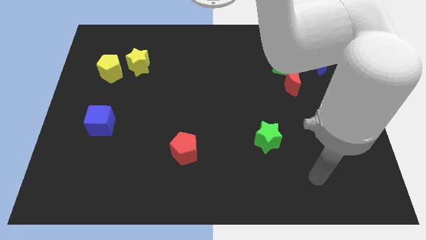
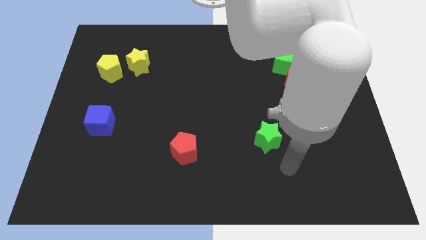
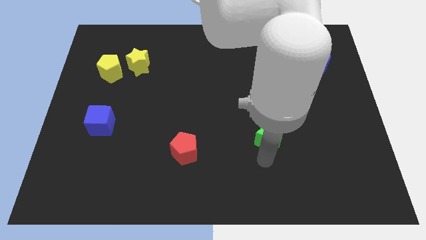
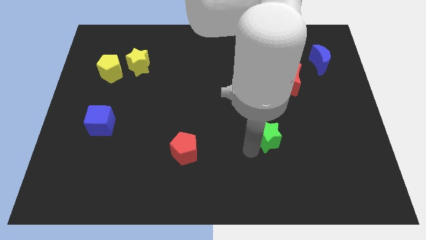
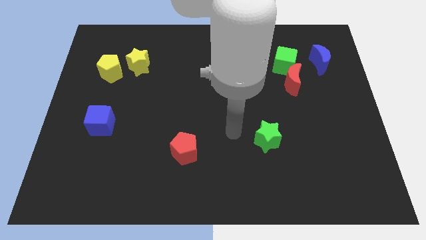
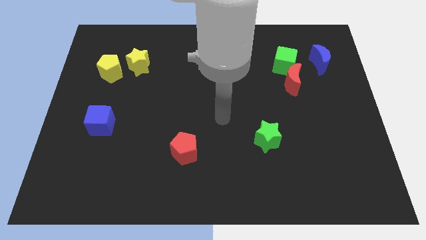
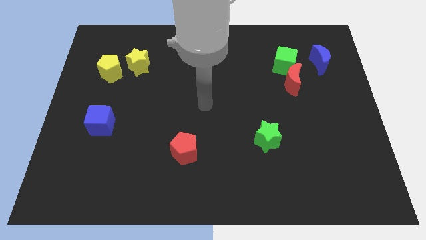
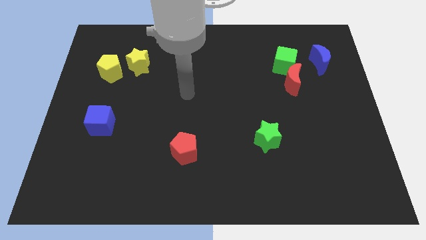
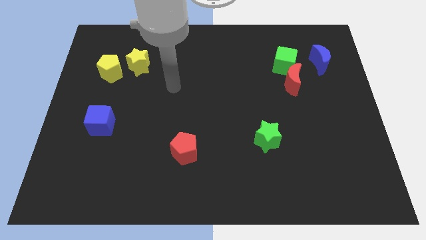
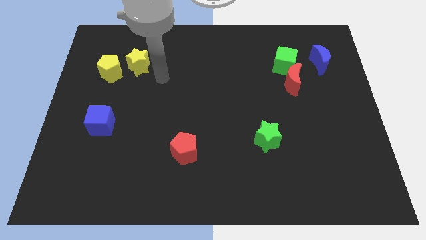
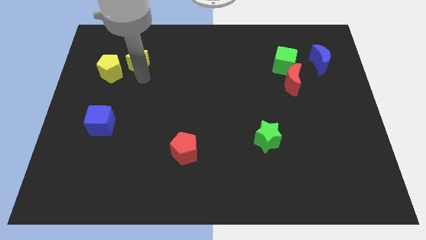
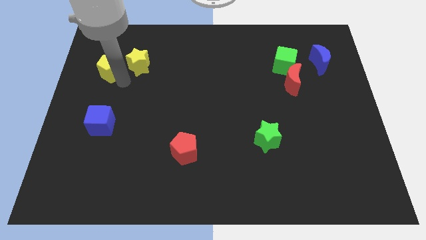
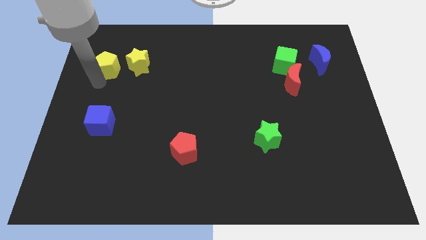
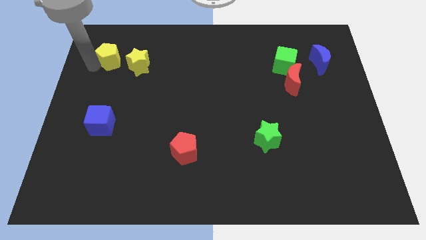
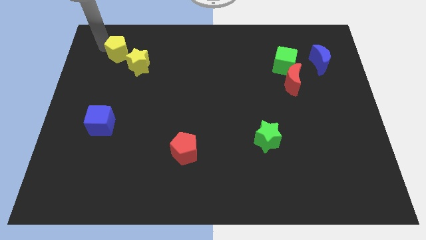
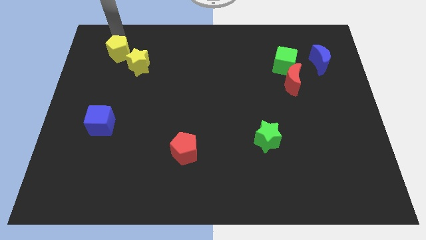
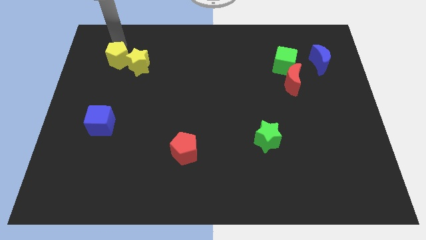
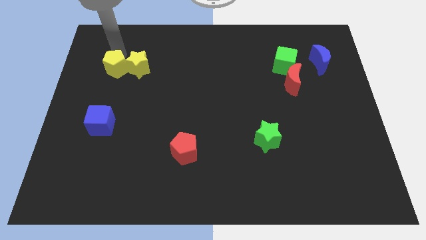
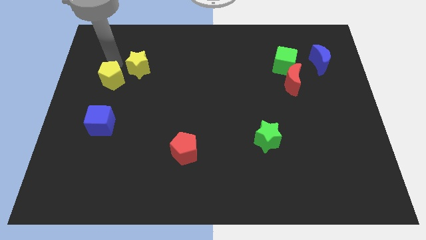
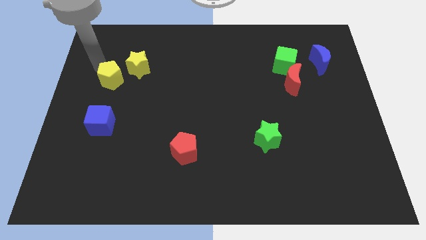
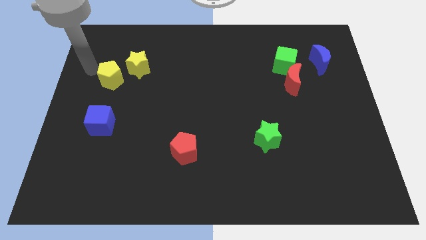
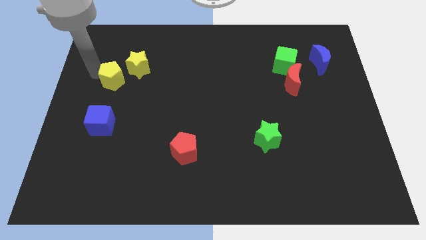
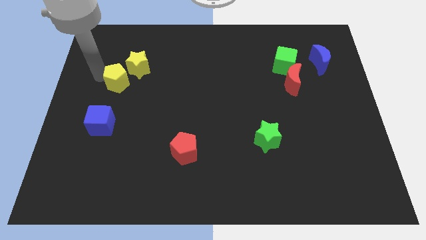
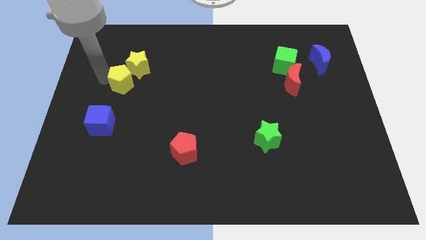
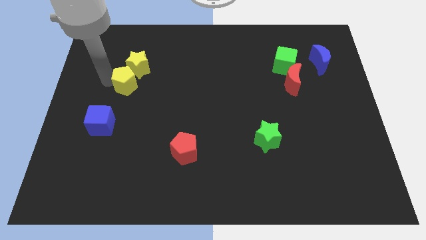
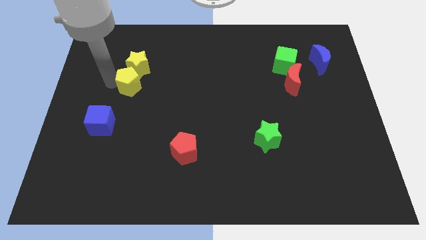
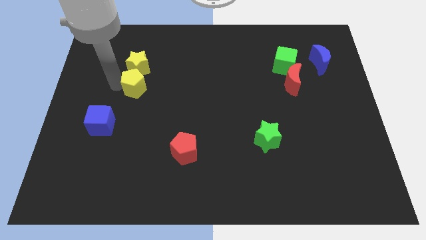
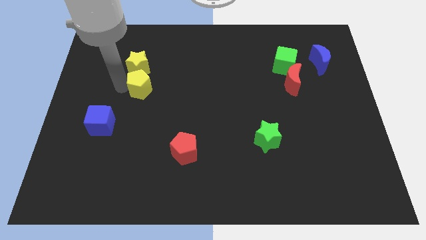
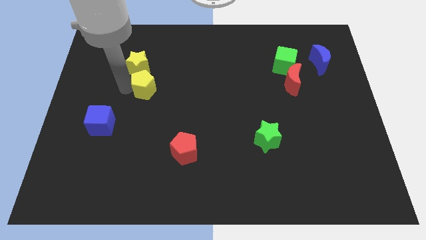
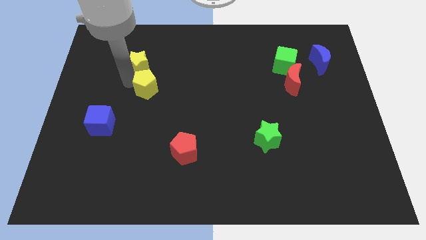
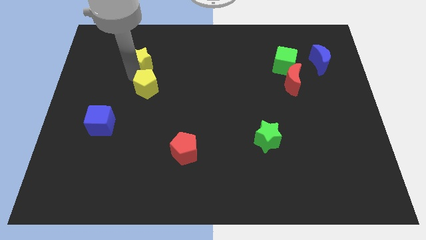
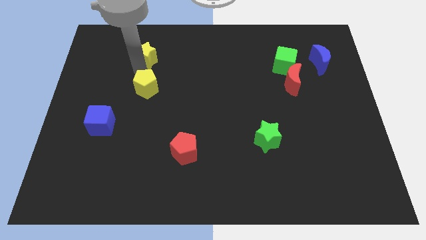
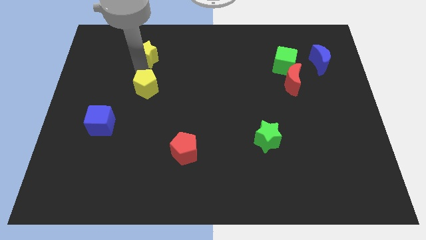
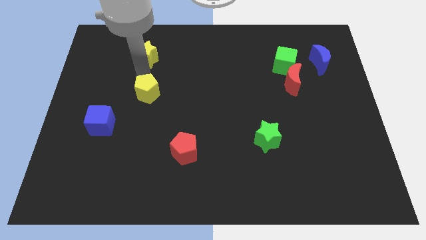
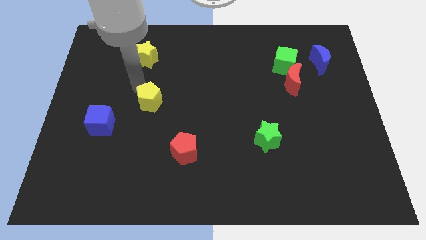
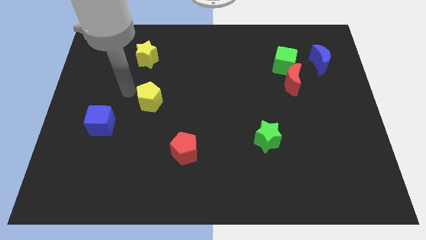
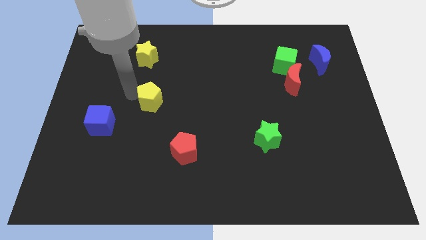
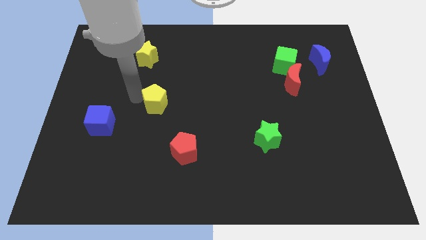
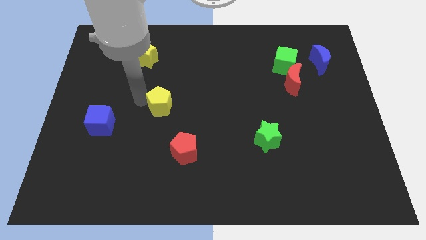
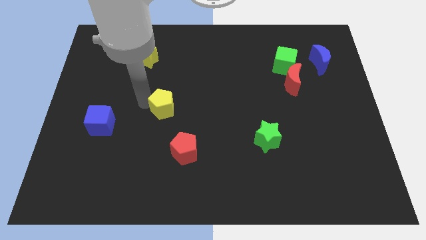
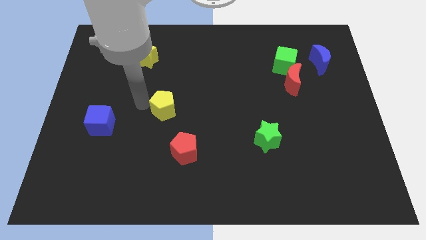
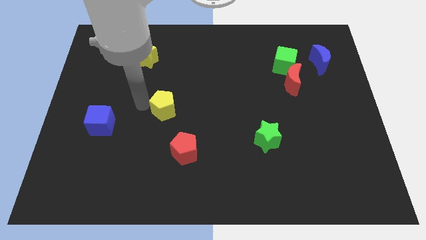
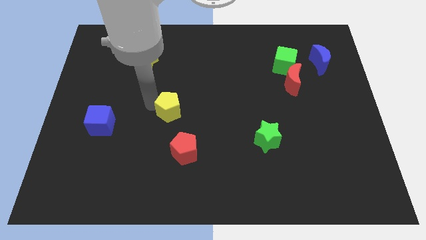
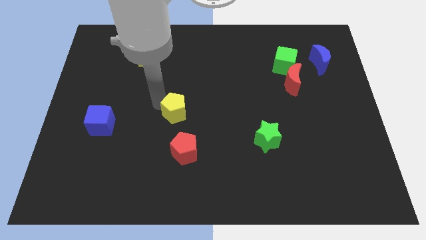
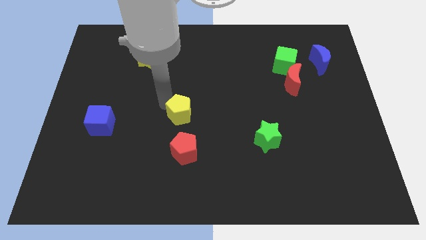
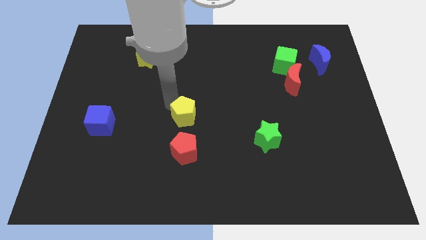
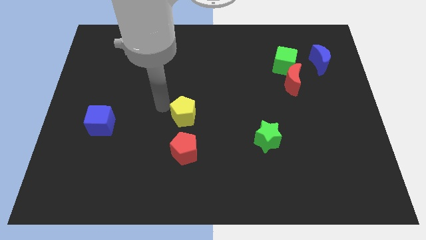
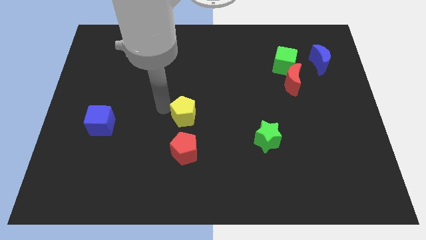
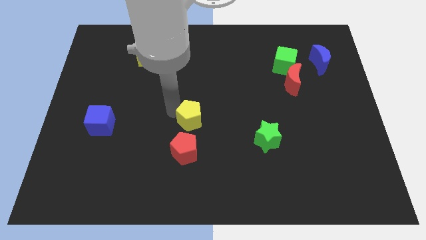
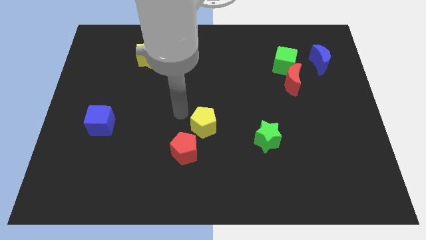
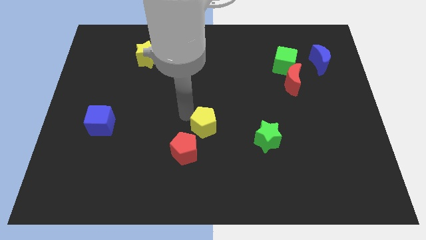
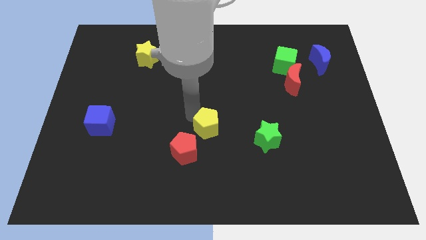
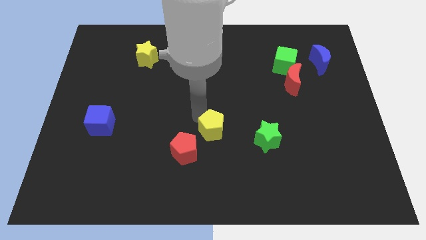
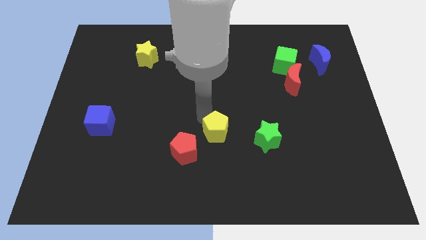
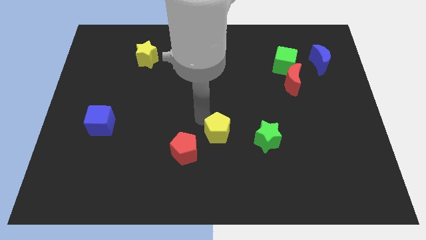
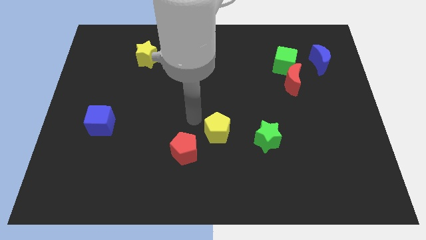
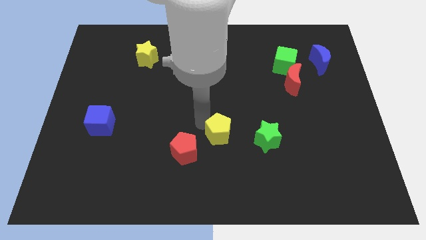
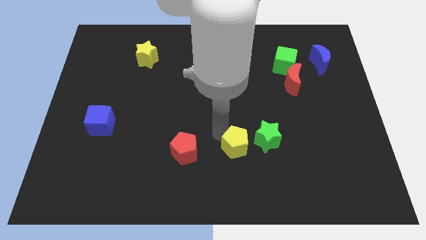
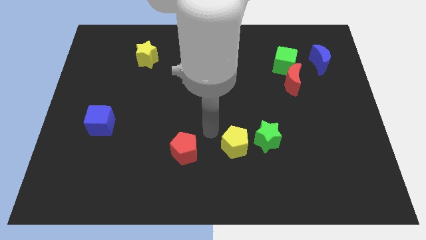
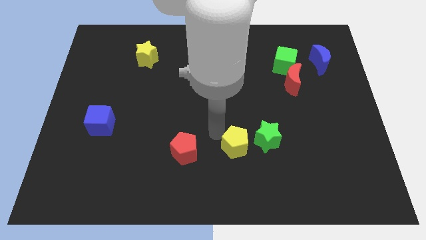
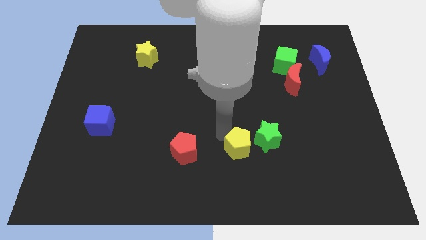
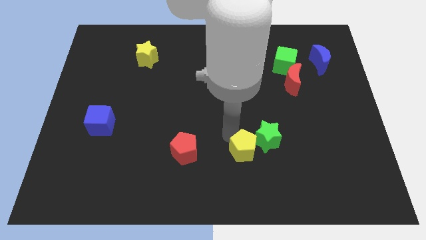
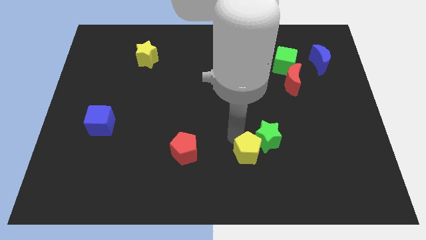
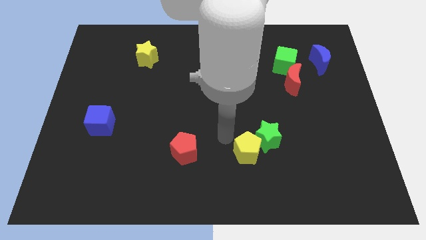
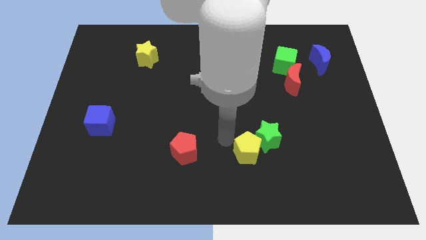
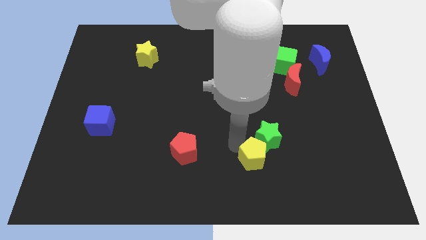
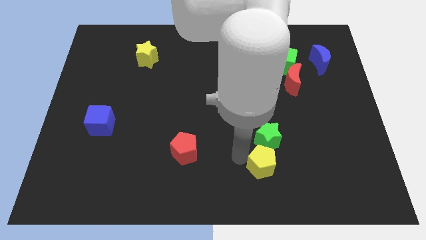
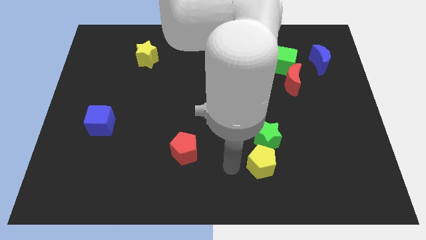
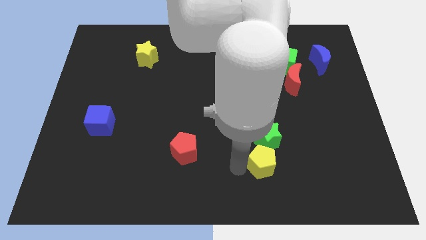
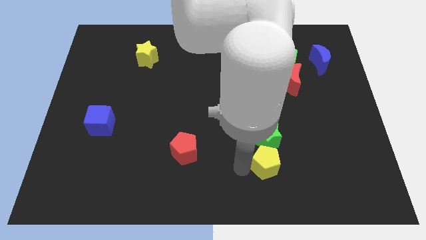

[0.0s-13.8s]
put the yellow pentagon diagonally down and to the right of the green star

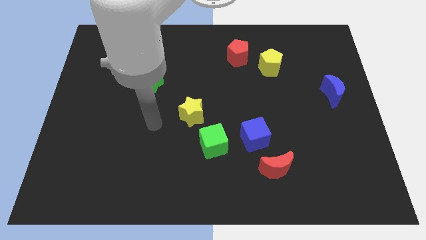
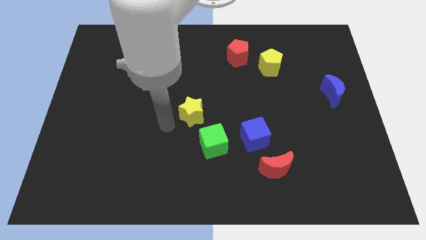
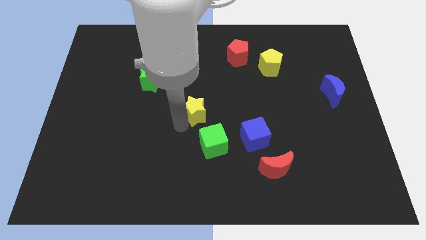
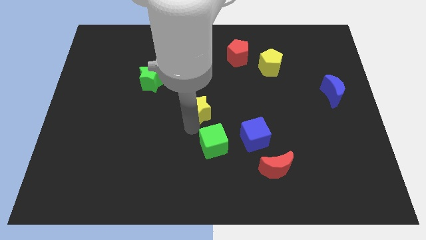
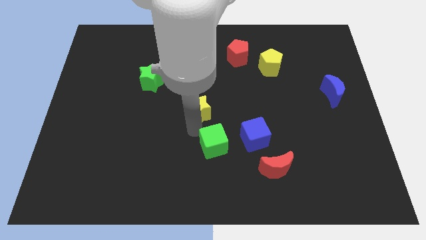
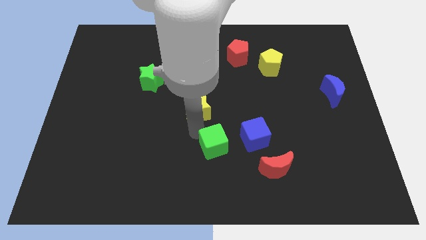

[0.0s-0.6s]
move the green cube to the bottom left side of the blue cube
